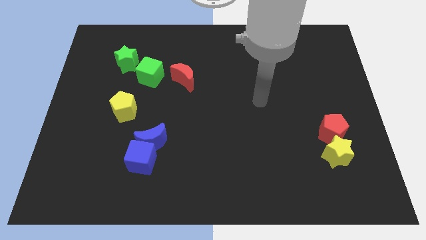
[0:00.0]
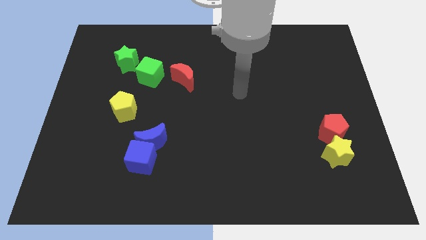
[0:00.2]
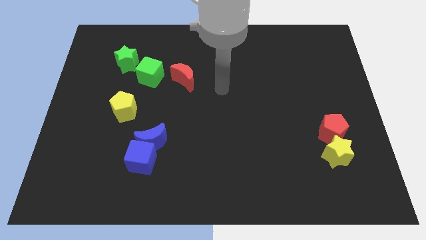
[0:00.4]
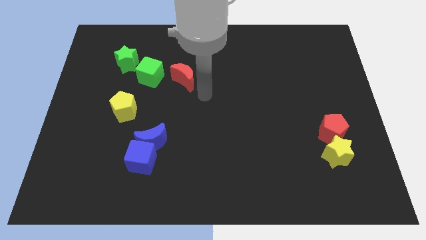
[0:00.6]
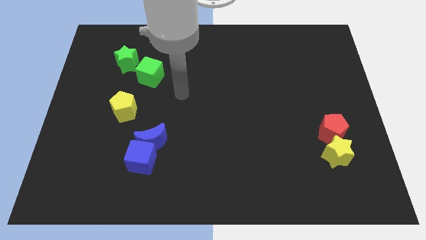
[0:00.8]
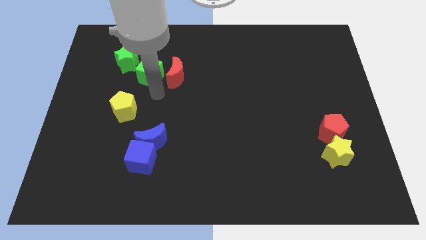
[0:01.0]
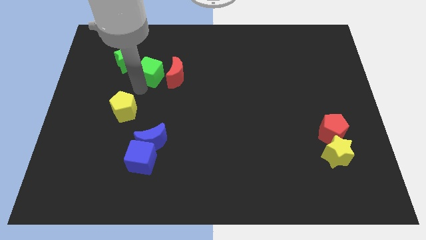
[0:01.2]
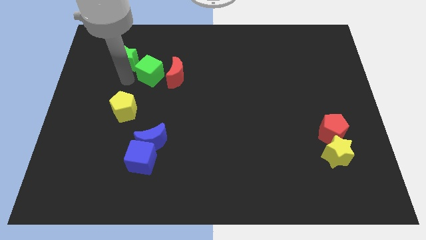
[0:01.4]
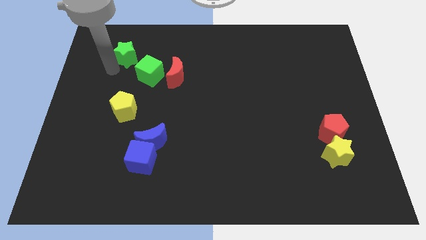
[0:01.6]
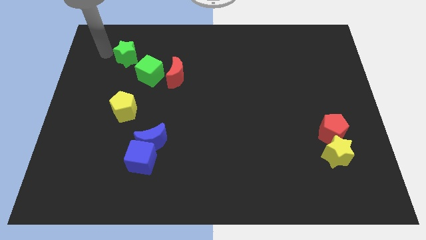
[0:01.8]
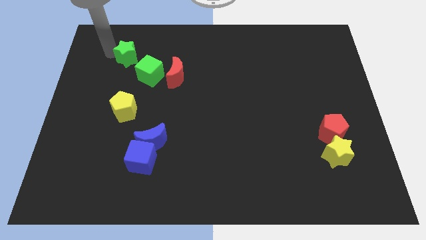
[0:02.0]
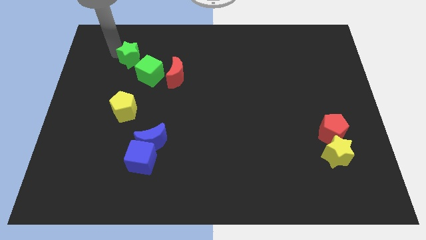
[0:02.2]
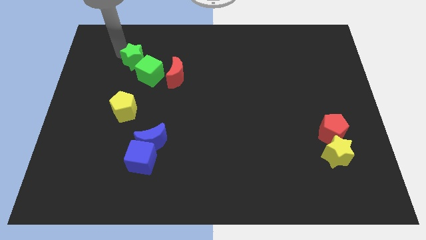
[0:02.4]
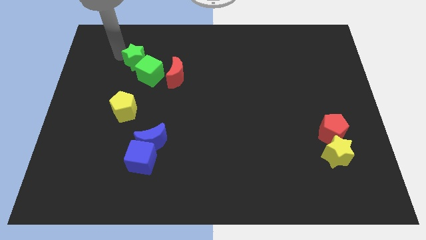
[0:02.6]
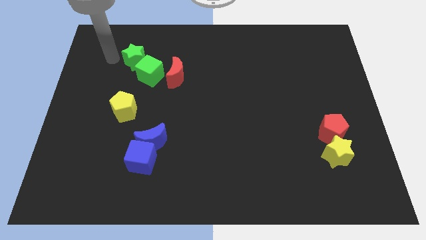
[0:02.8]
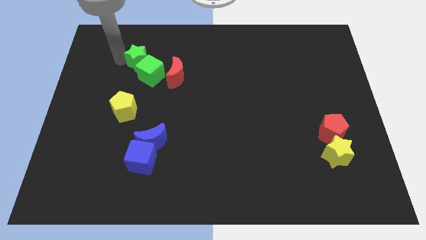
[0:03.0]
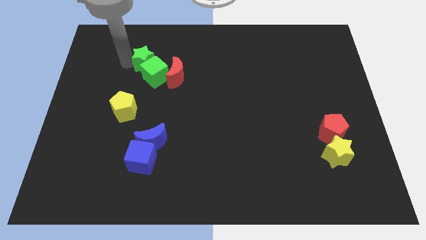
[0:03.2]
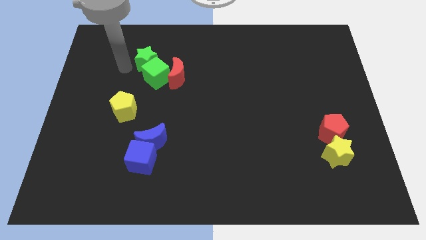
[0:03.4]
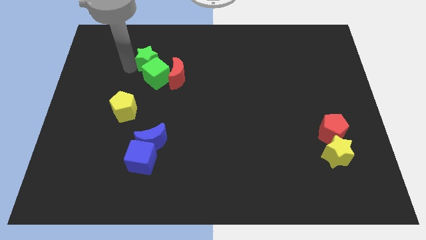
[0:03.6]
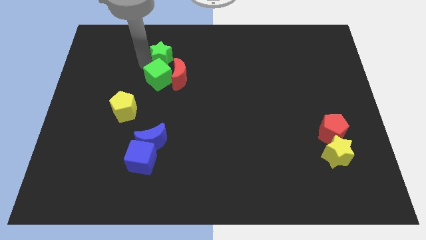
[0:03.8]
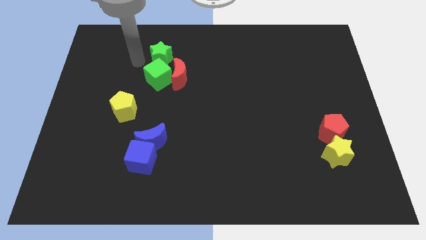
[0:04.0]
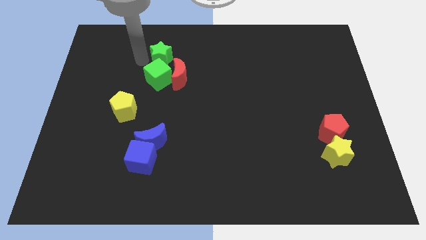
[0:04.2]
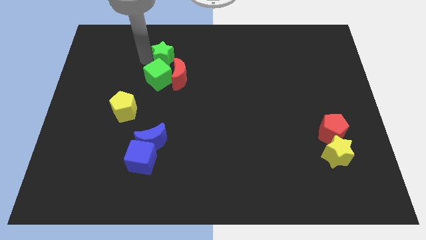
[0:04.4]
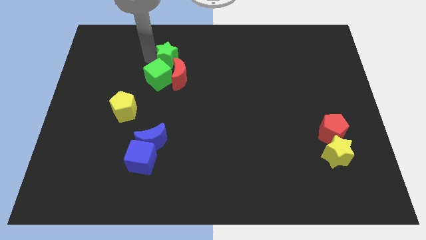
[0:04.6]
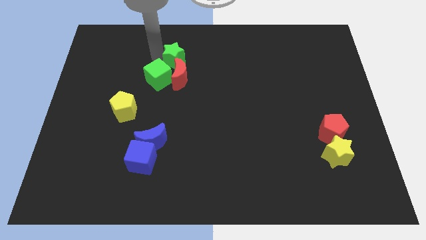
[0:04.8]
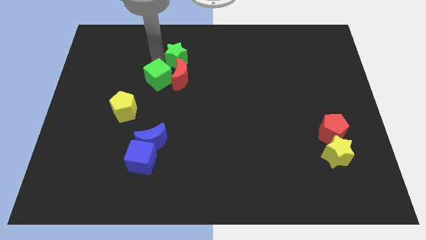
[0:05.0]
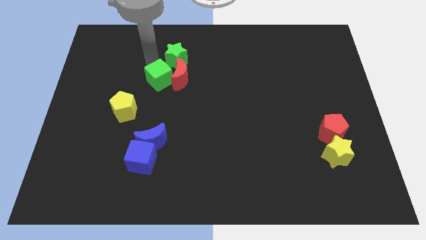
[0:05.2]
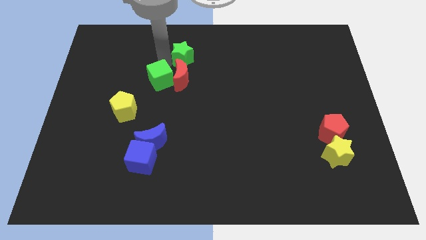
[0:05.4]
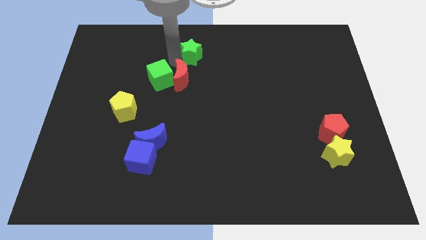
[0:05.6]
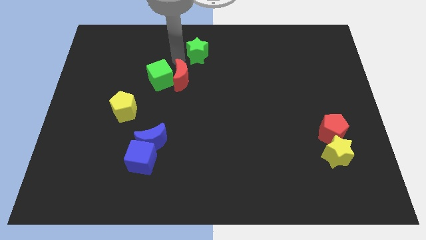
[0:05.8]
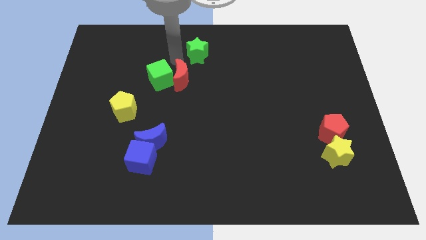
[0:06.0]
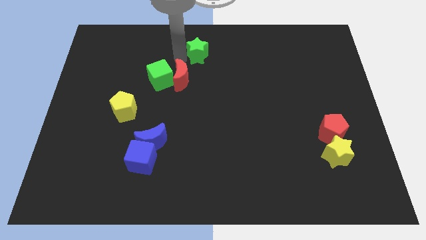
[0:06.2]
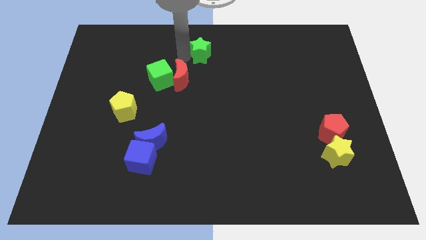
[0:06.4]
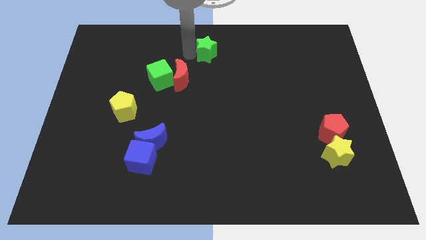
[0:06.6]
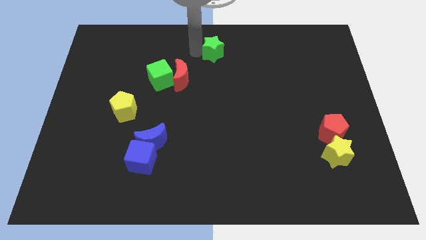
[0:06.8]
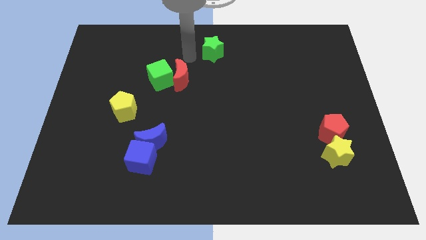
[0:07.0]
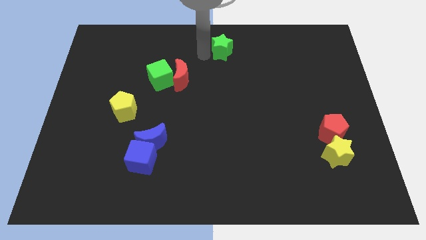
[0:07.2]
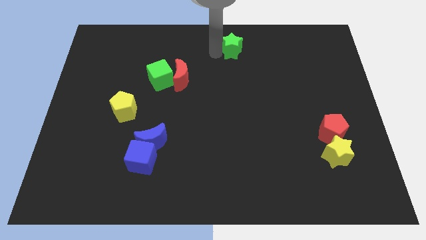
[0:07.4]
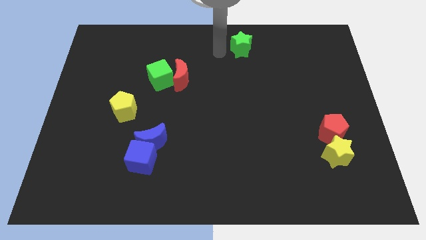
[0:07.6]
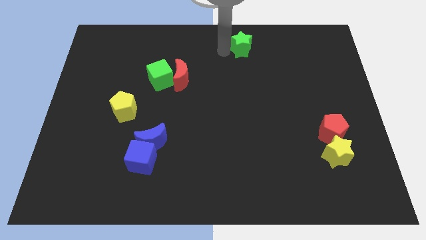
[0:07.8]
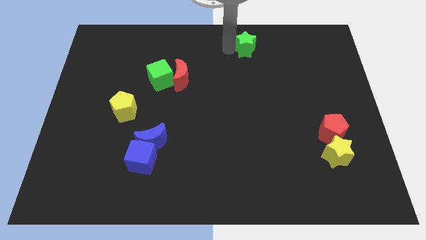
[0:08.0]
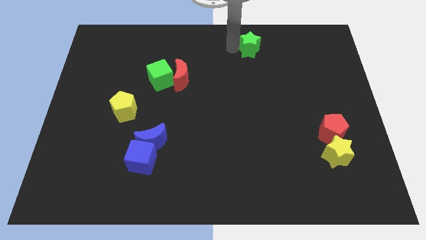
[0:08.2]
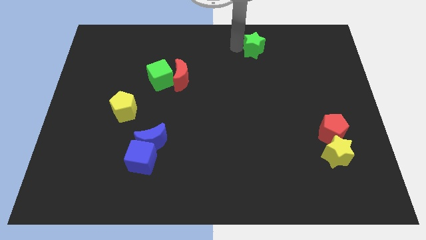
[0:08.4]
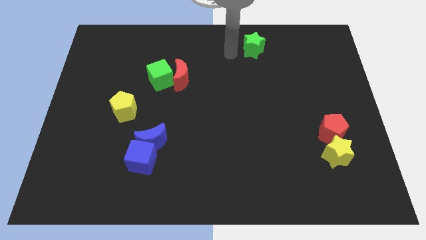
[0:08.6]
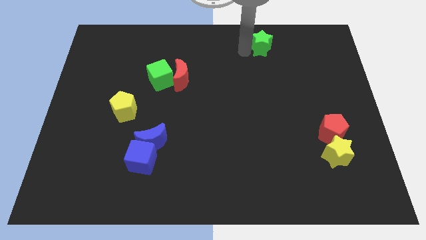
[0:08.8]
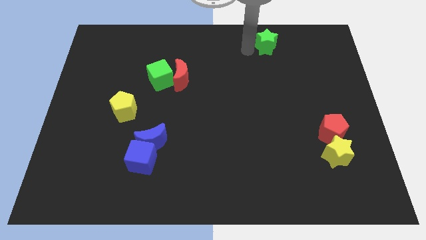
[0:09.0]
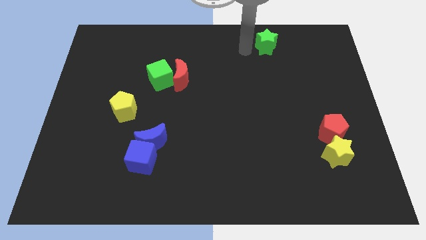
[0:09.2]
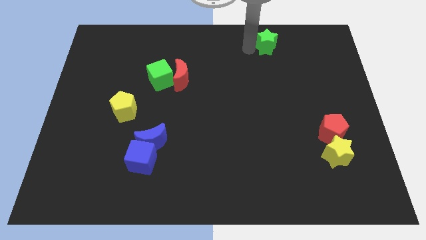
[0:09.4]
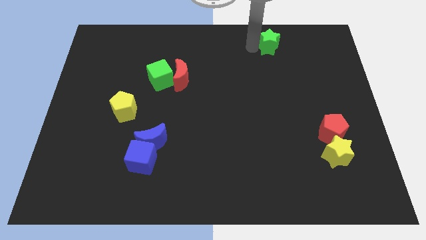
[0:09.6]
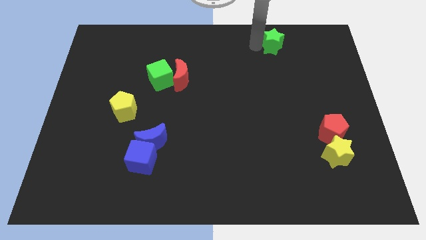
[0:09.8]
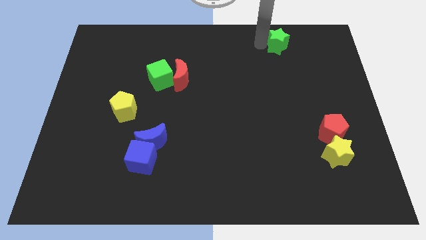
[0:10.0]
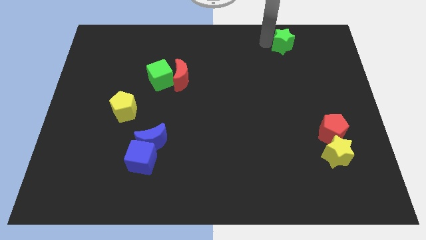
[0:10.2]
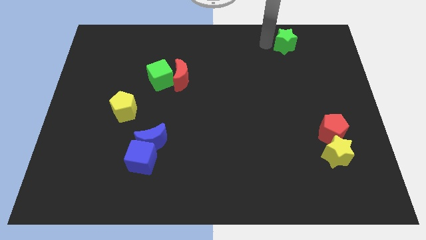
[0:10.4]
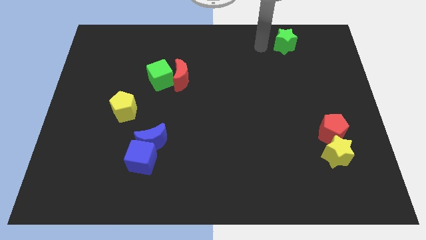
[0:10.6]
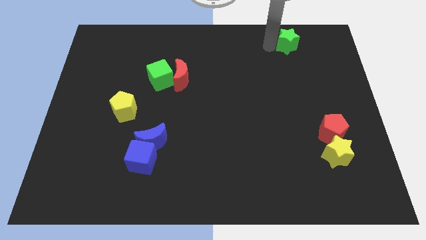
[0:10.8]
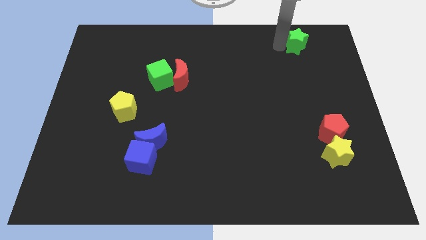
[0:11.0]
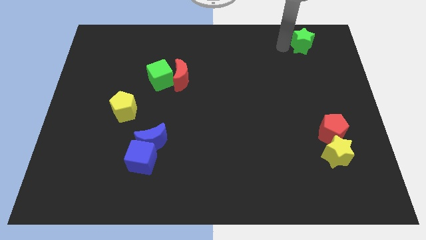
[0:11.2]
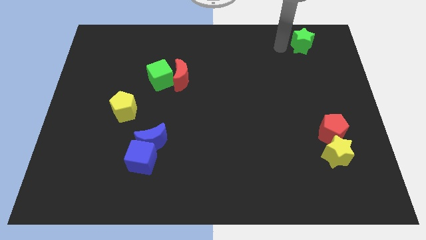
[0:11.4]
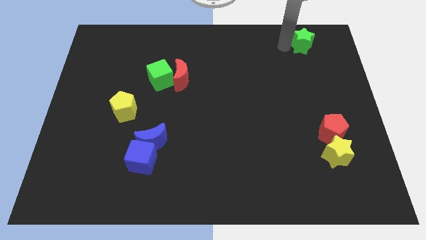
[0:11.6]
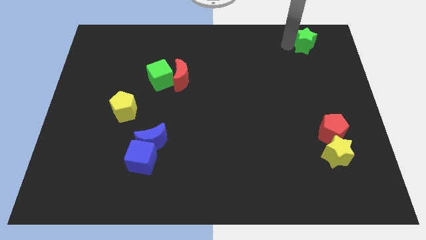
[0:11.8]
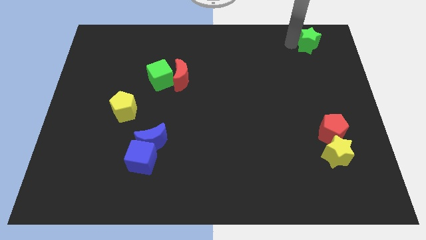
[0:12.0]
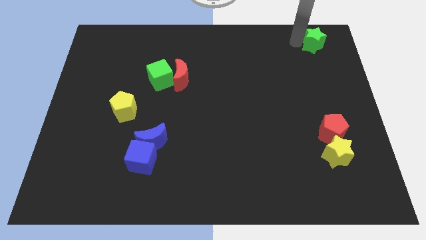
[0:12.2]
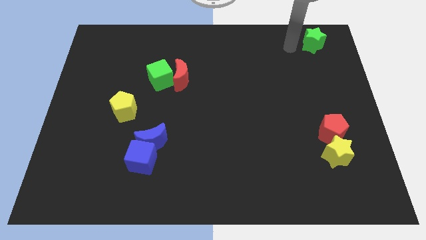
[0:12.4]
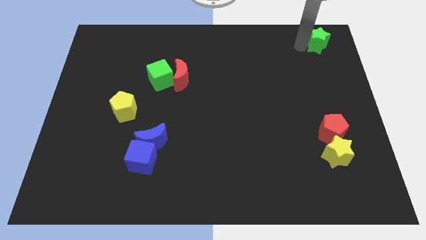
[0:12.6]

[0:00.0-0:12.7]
push the green star to the top right
